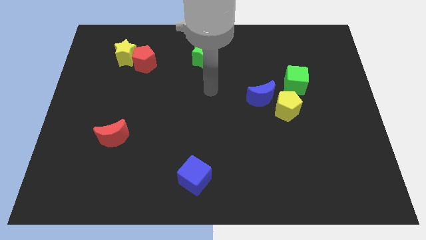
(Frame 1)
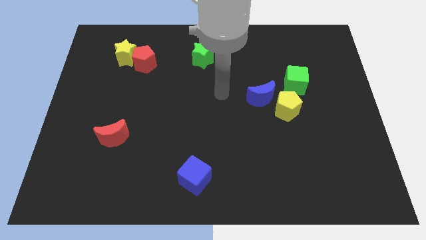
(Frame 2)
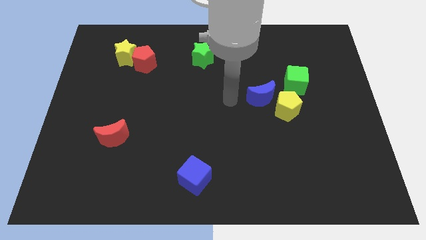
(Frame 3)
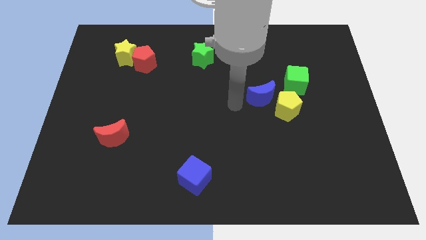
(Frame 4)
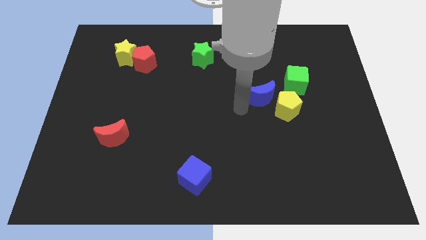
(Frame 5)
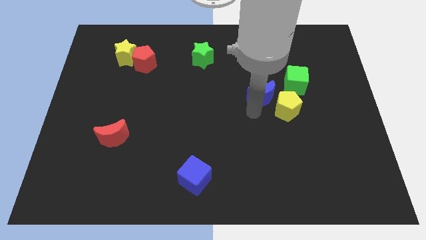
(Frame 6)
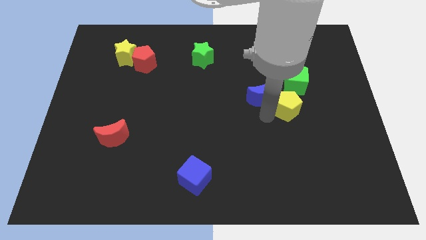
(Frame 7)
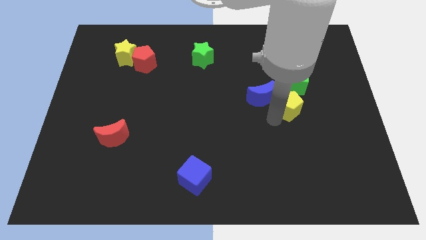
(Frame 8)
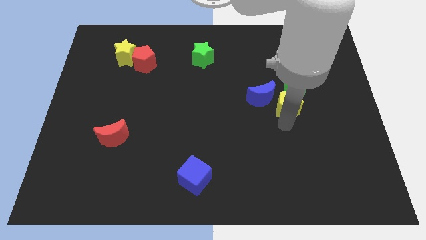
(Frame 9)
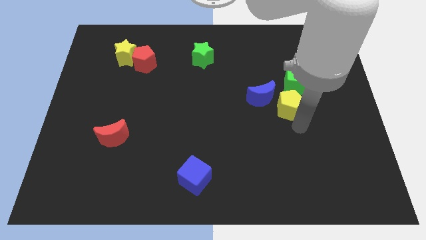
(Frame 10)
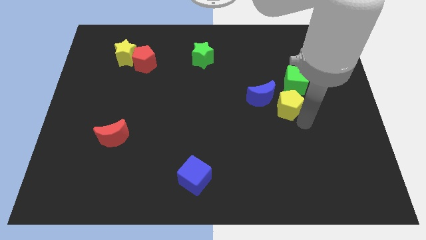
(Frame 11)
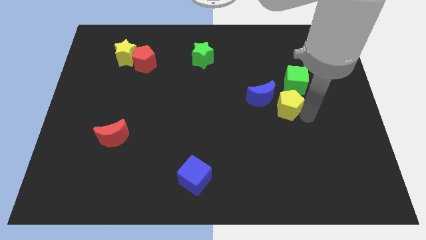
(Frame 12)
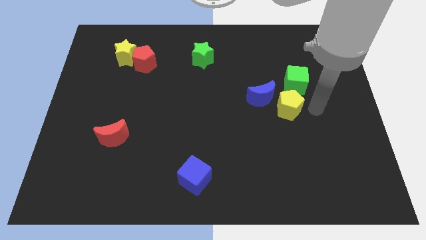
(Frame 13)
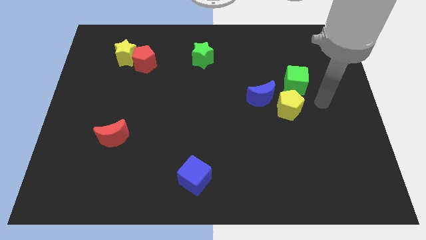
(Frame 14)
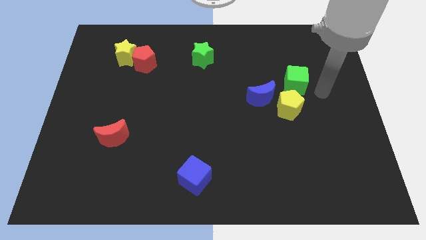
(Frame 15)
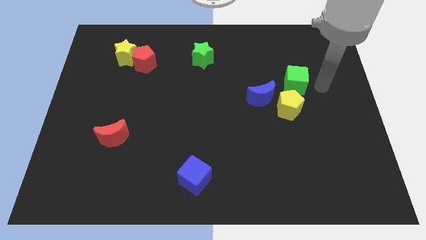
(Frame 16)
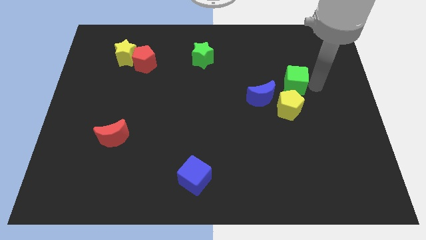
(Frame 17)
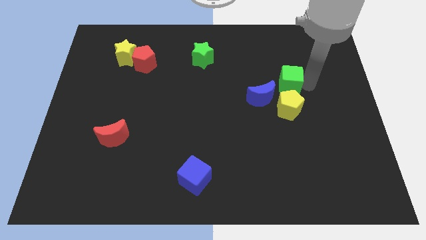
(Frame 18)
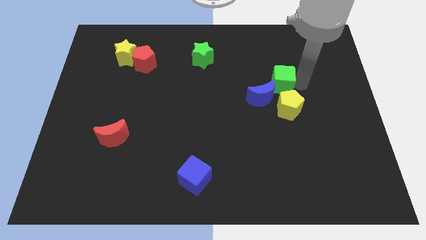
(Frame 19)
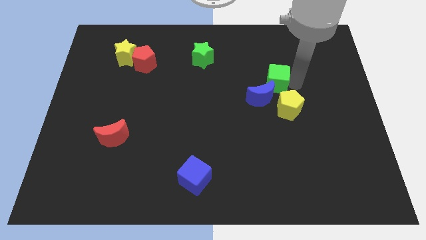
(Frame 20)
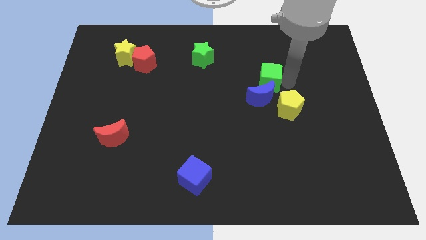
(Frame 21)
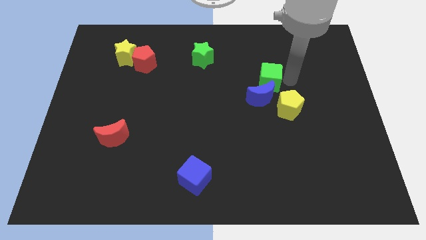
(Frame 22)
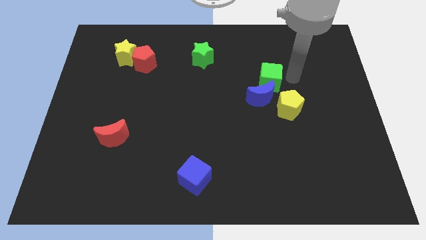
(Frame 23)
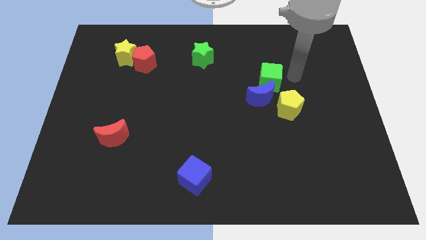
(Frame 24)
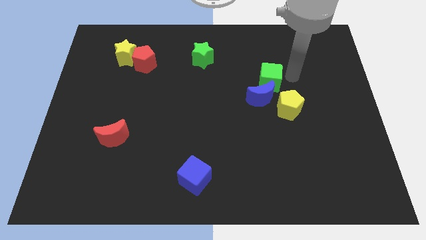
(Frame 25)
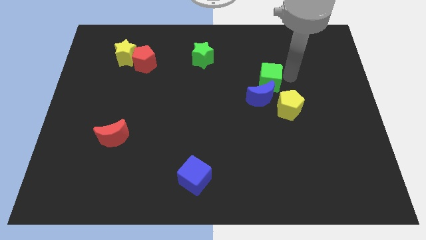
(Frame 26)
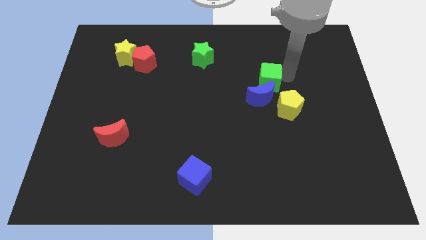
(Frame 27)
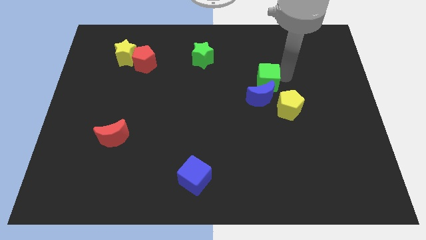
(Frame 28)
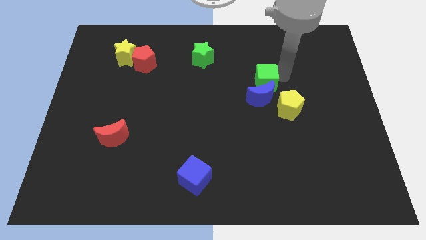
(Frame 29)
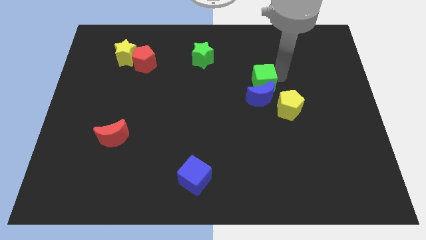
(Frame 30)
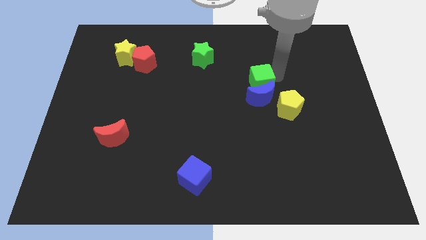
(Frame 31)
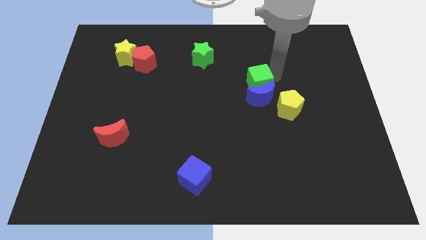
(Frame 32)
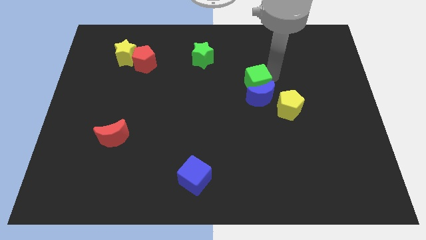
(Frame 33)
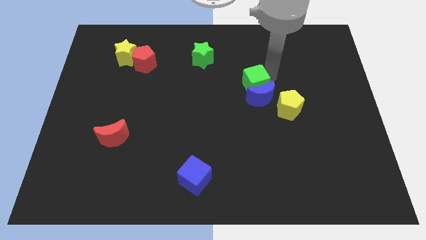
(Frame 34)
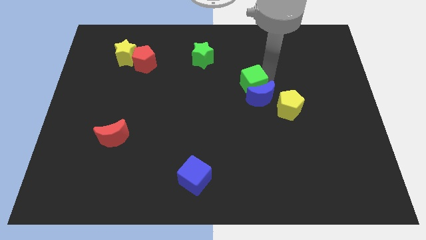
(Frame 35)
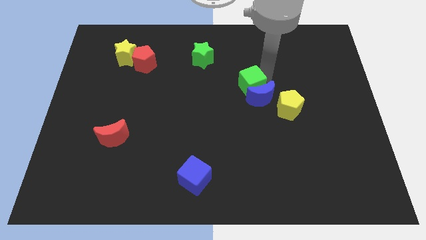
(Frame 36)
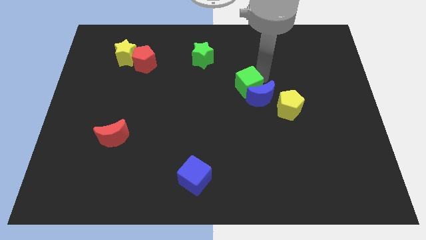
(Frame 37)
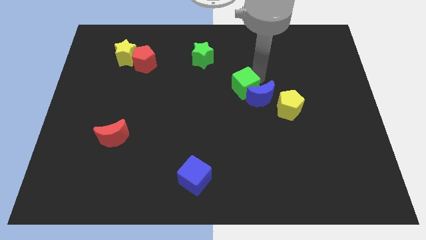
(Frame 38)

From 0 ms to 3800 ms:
move the green cube downwards and then to the left a little

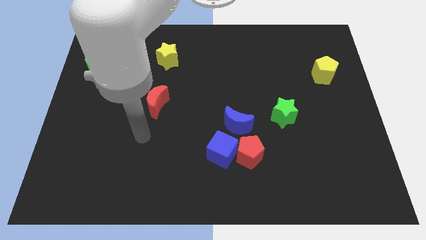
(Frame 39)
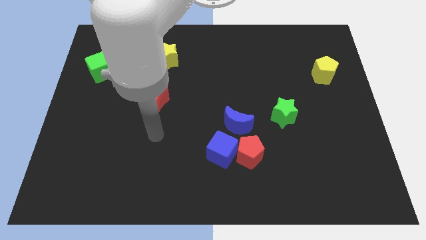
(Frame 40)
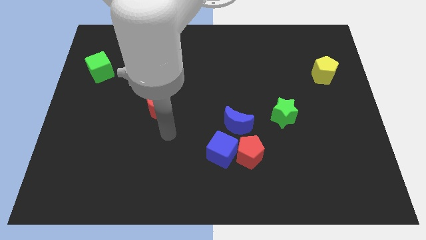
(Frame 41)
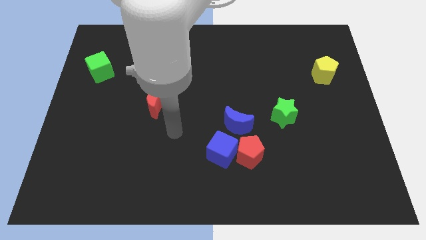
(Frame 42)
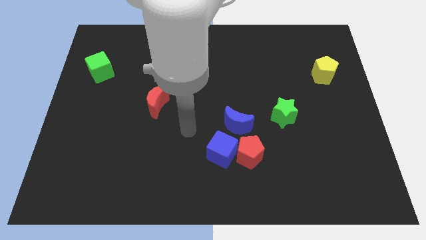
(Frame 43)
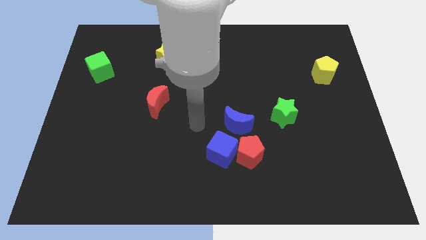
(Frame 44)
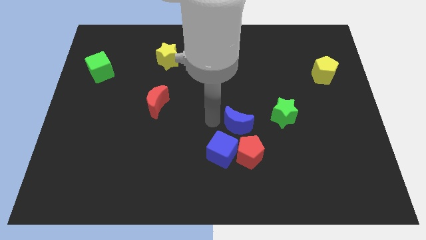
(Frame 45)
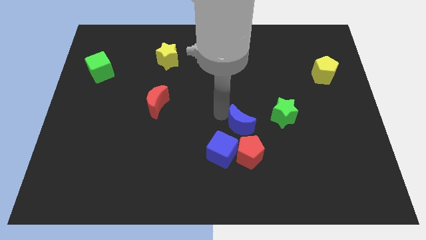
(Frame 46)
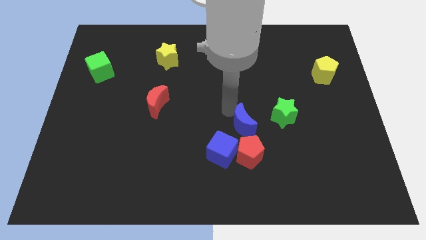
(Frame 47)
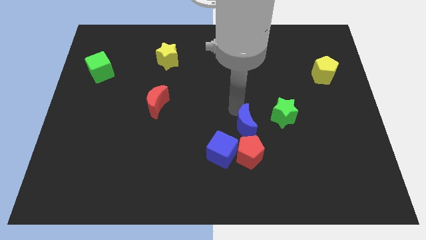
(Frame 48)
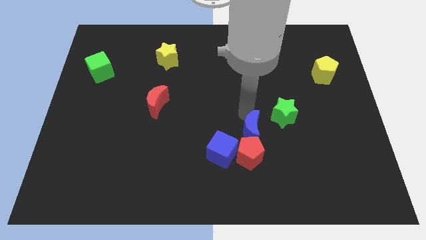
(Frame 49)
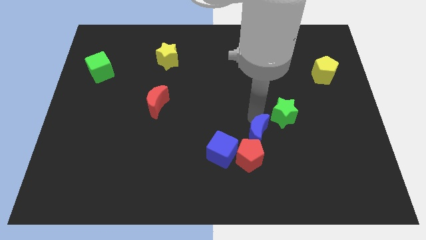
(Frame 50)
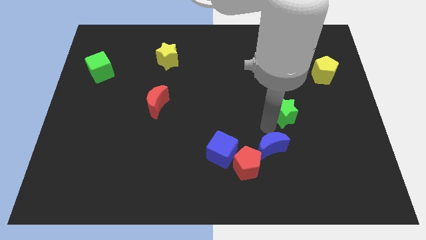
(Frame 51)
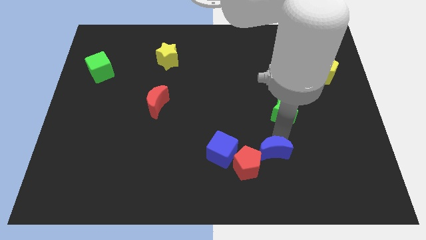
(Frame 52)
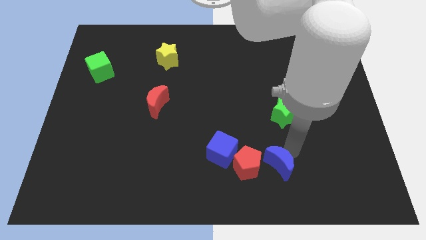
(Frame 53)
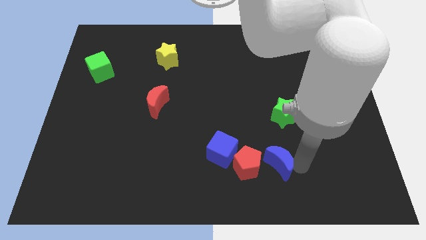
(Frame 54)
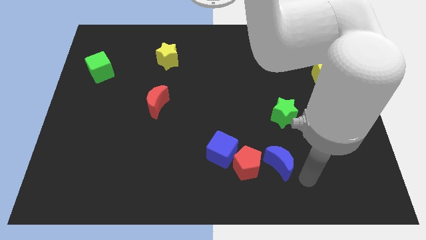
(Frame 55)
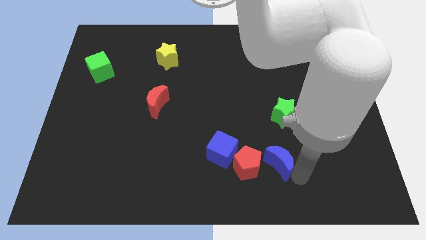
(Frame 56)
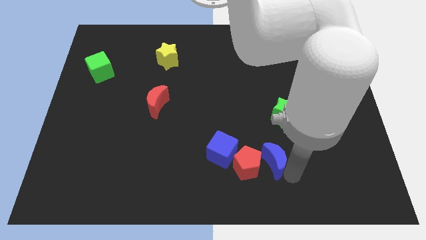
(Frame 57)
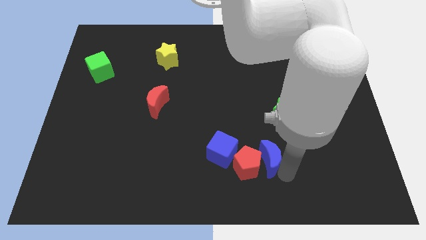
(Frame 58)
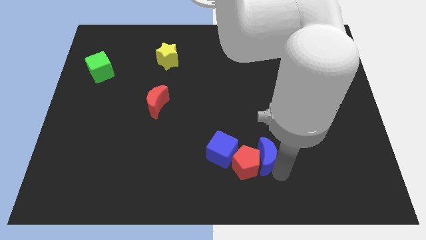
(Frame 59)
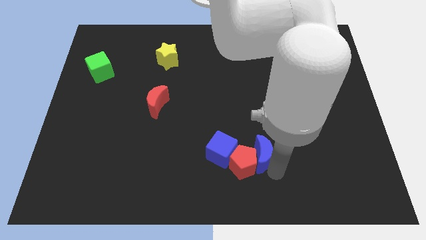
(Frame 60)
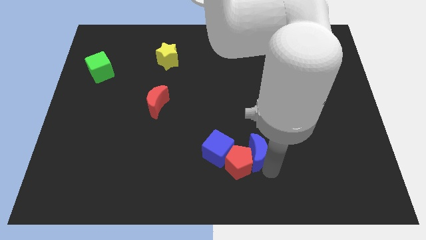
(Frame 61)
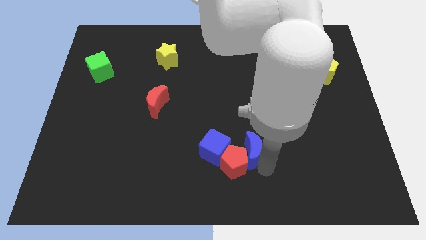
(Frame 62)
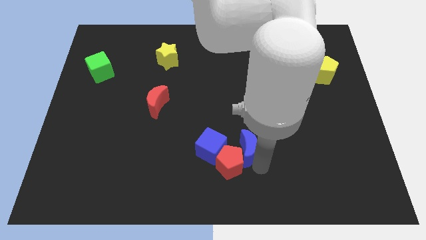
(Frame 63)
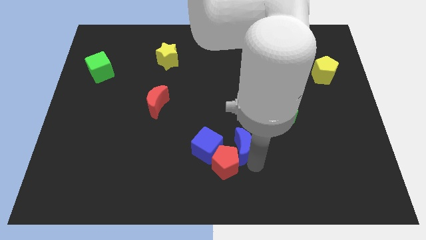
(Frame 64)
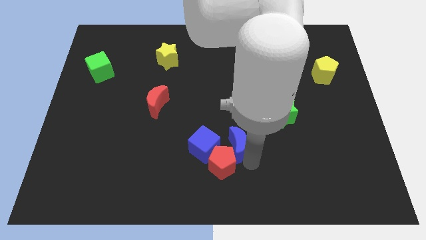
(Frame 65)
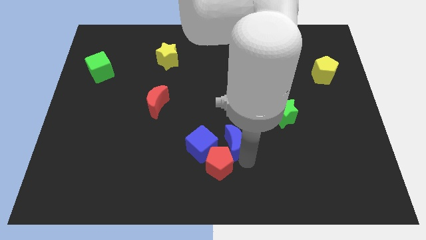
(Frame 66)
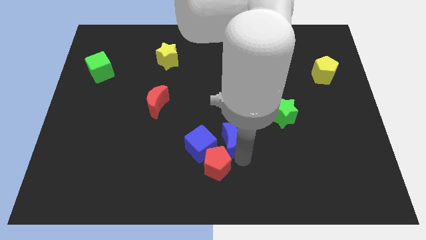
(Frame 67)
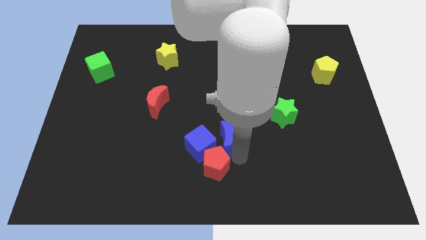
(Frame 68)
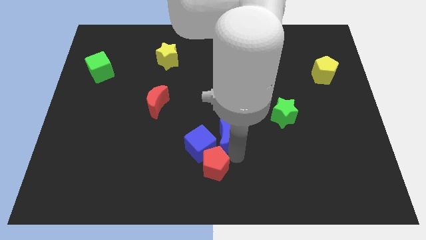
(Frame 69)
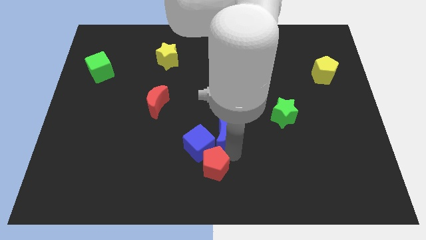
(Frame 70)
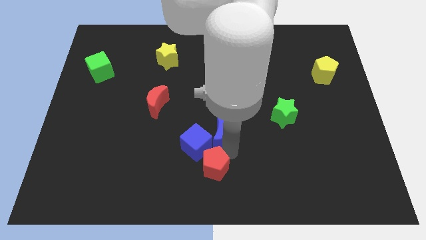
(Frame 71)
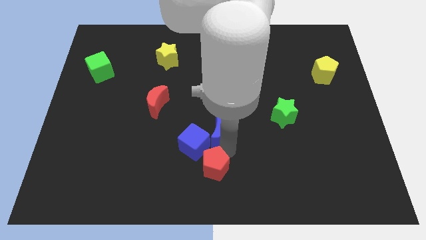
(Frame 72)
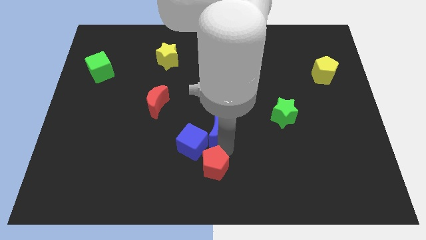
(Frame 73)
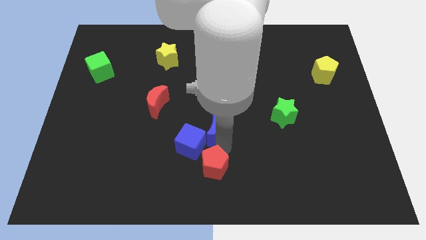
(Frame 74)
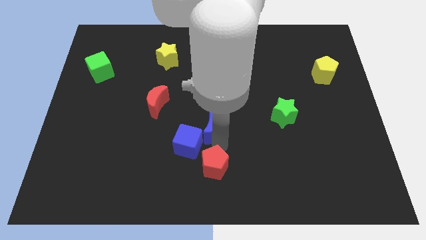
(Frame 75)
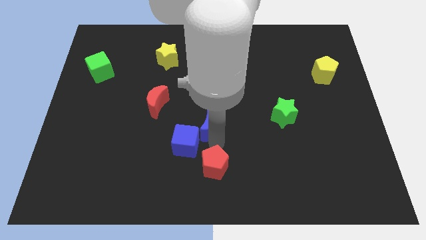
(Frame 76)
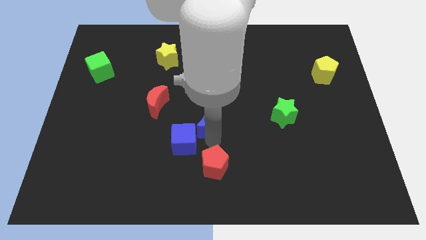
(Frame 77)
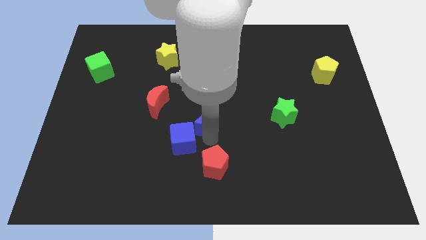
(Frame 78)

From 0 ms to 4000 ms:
move the blue moon to the left a little

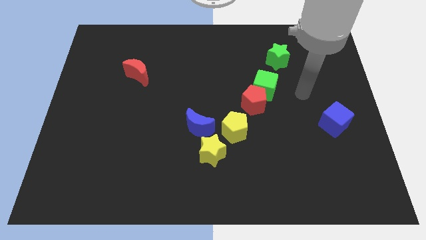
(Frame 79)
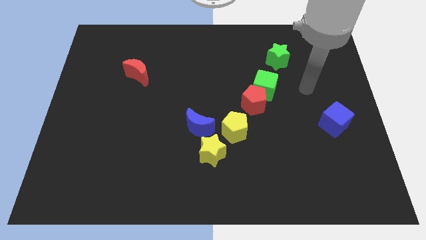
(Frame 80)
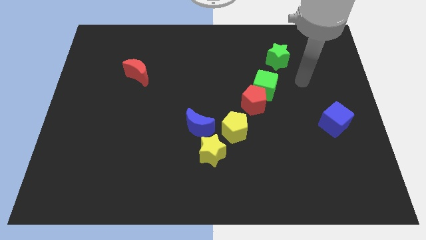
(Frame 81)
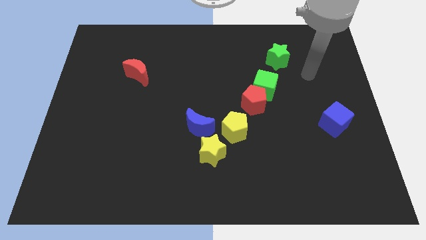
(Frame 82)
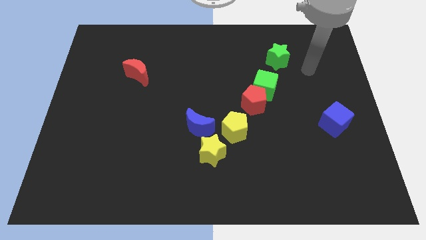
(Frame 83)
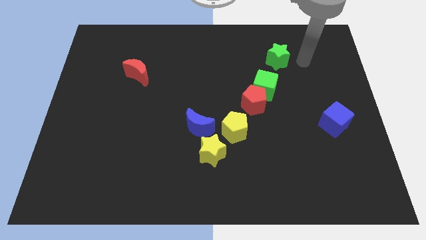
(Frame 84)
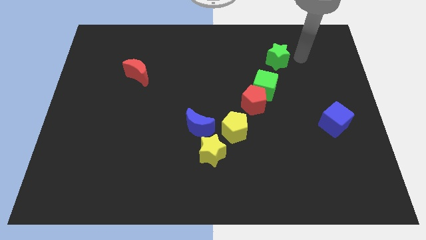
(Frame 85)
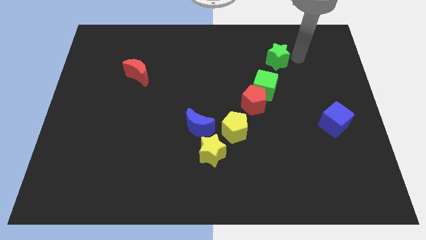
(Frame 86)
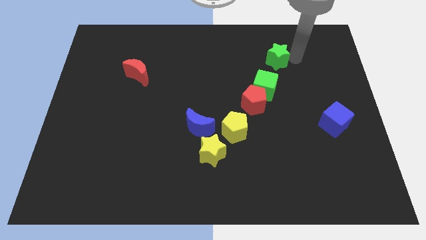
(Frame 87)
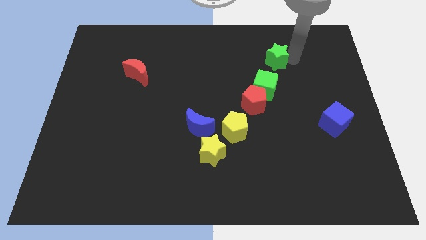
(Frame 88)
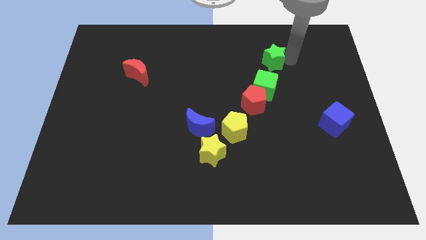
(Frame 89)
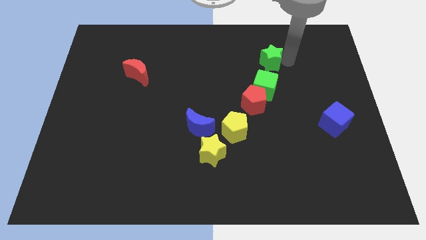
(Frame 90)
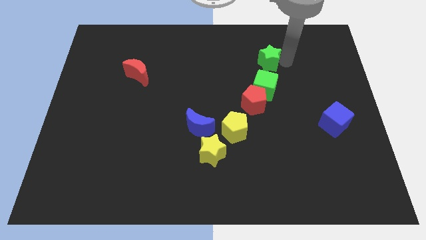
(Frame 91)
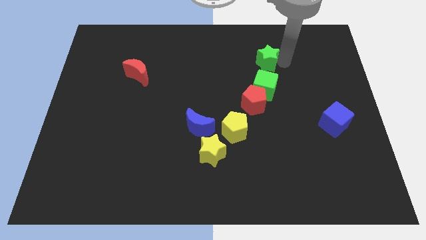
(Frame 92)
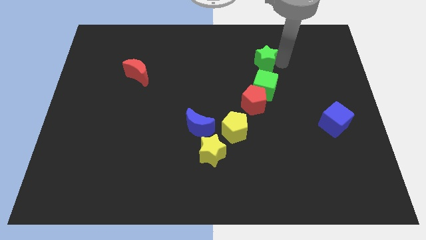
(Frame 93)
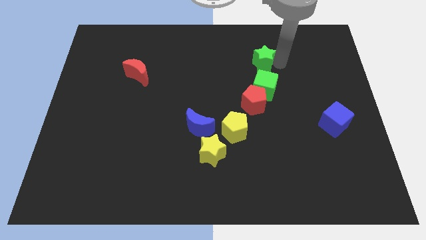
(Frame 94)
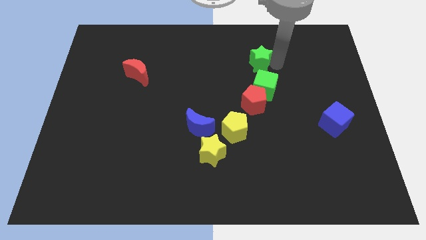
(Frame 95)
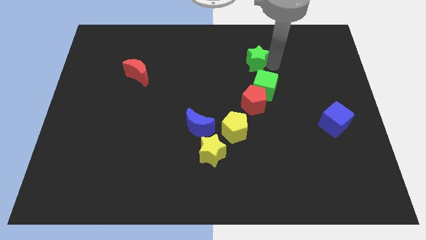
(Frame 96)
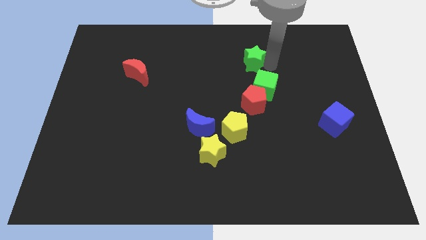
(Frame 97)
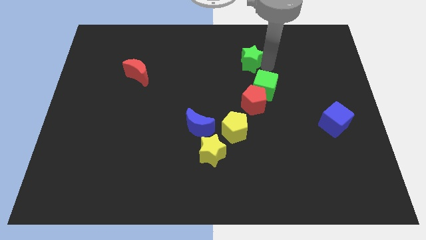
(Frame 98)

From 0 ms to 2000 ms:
move the green star slightly to the left
